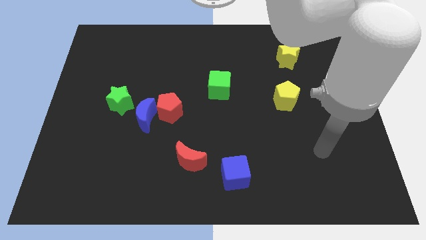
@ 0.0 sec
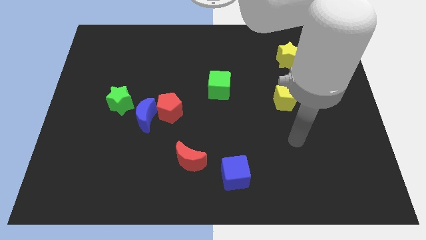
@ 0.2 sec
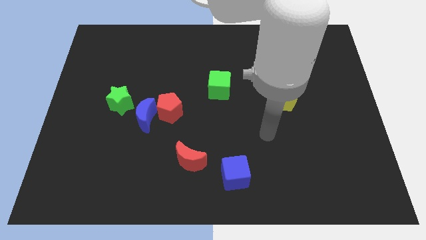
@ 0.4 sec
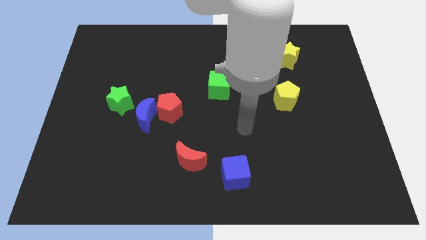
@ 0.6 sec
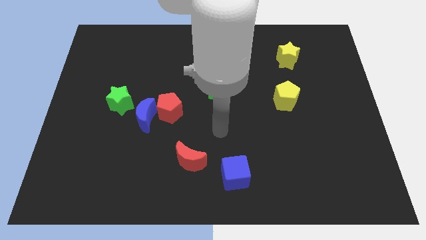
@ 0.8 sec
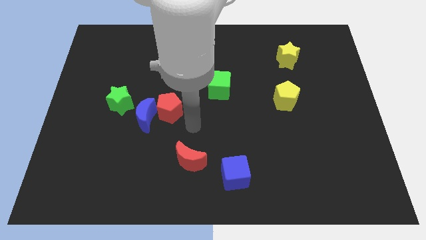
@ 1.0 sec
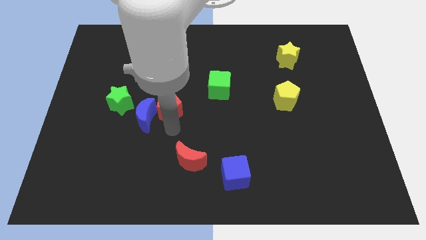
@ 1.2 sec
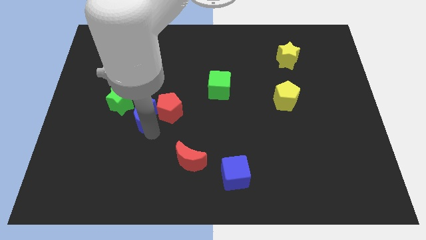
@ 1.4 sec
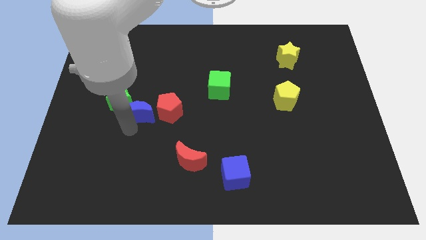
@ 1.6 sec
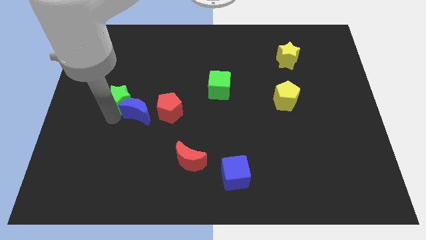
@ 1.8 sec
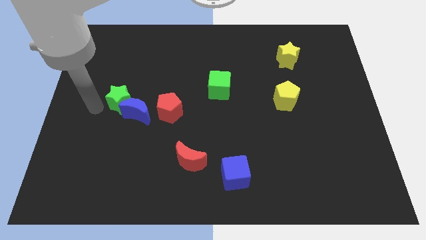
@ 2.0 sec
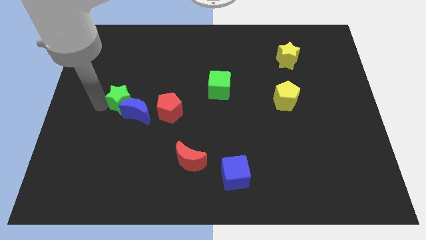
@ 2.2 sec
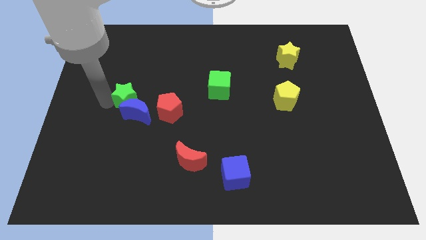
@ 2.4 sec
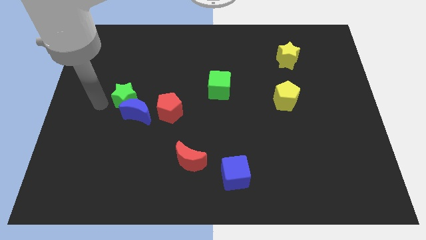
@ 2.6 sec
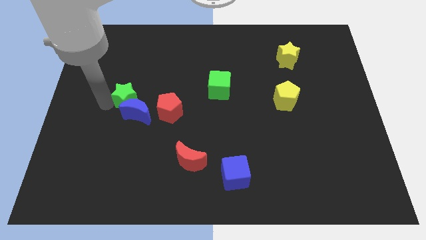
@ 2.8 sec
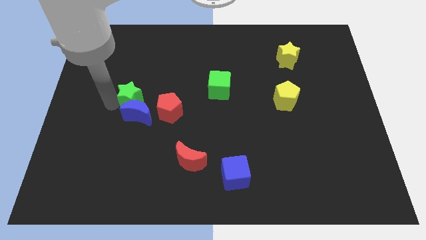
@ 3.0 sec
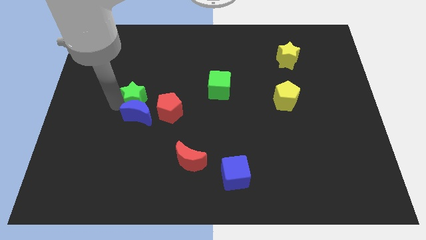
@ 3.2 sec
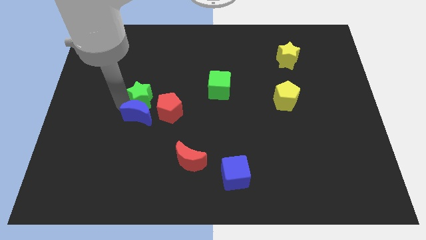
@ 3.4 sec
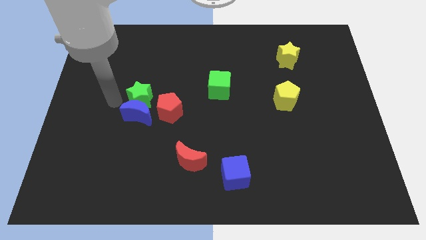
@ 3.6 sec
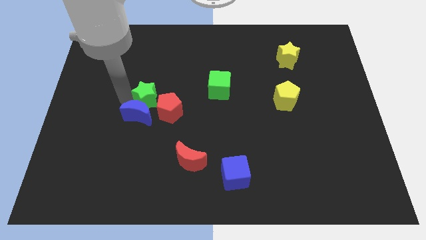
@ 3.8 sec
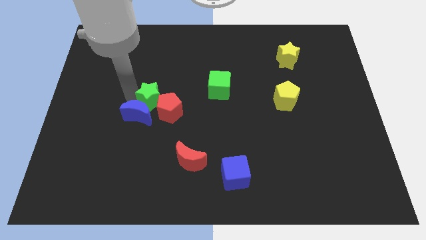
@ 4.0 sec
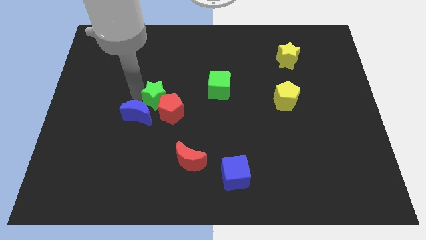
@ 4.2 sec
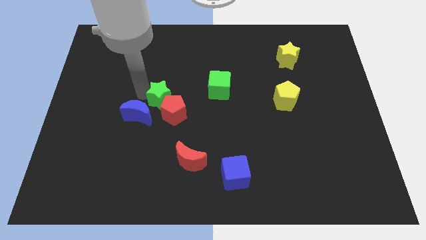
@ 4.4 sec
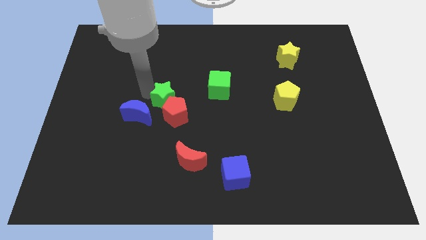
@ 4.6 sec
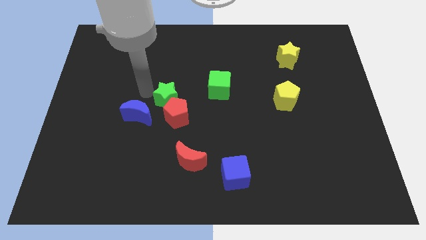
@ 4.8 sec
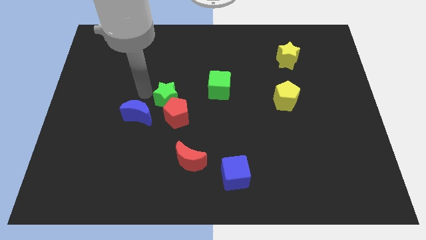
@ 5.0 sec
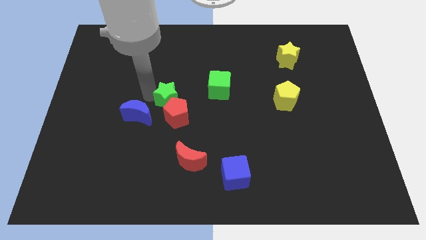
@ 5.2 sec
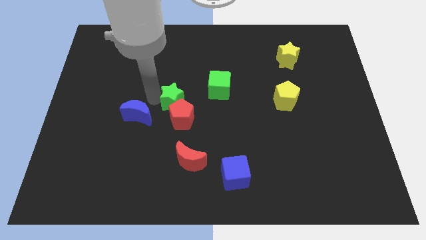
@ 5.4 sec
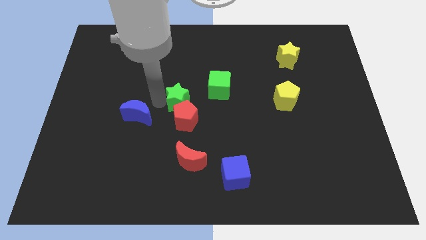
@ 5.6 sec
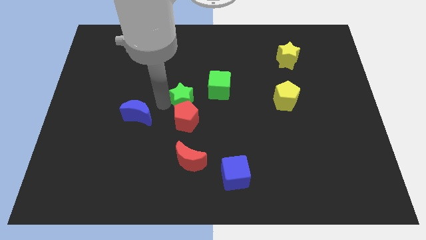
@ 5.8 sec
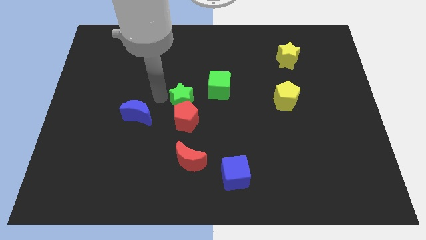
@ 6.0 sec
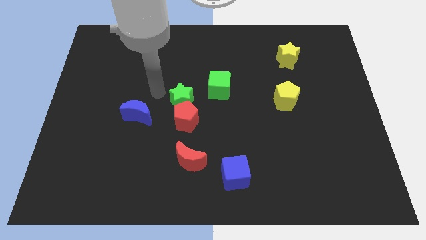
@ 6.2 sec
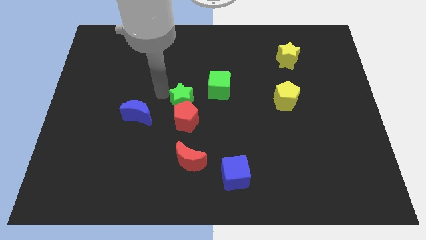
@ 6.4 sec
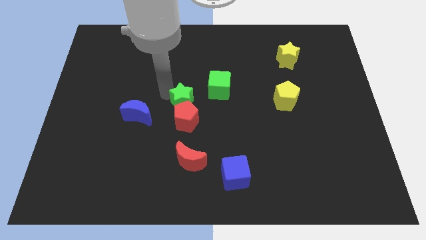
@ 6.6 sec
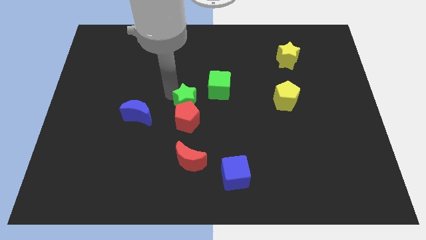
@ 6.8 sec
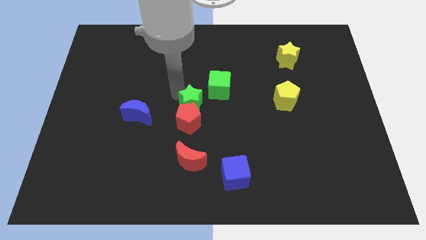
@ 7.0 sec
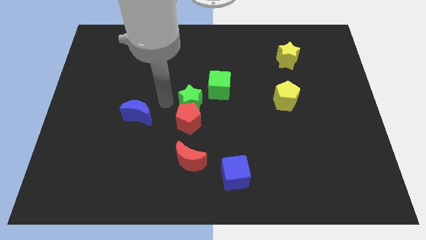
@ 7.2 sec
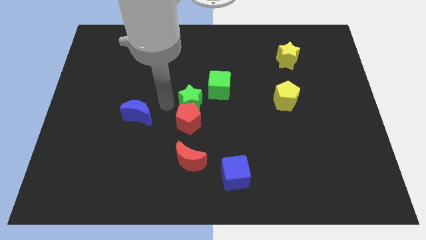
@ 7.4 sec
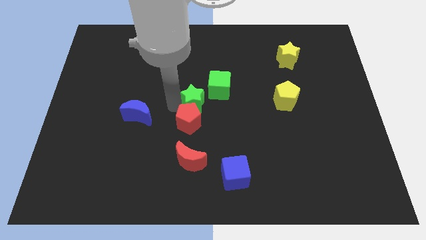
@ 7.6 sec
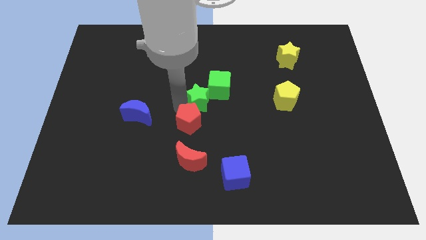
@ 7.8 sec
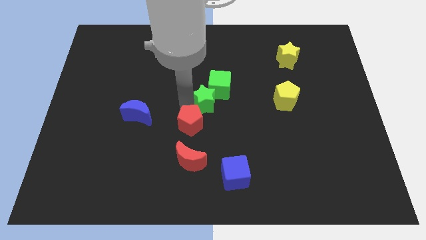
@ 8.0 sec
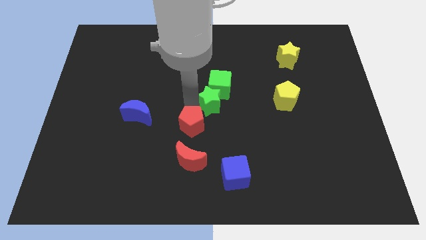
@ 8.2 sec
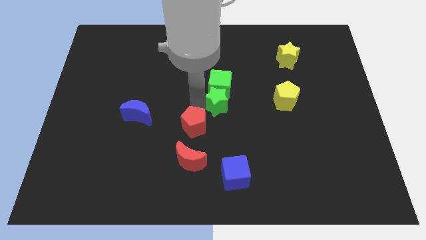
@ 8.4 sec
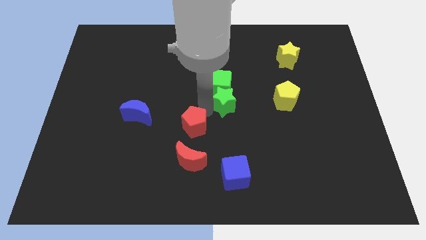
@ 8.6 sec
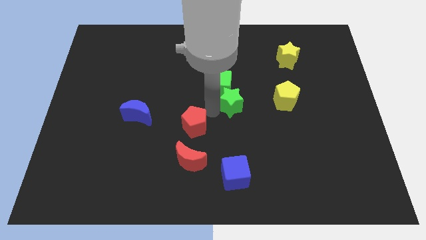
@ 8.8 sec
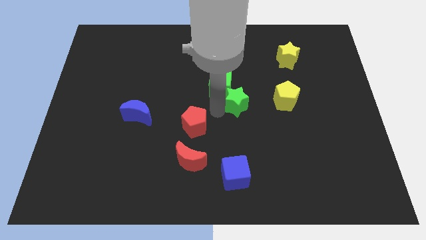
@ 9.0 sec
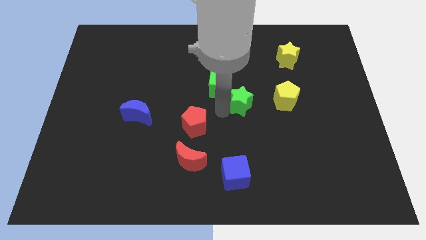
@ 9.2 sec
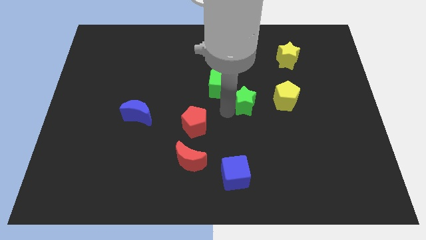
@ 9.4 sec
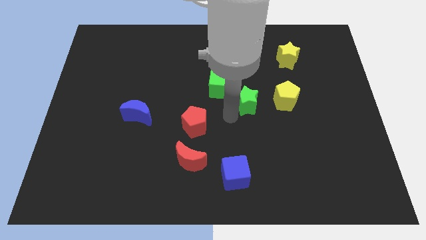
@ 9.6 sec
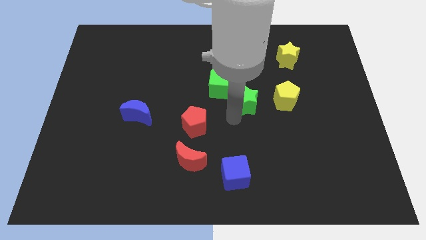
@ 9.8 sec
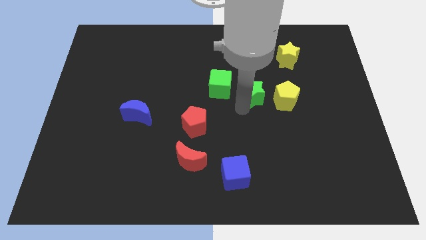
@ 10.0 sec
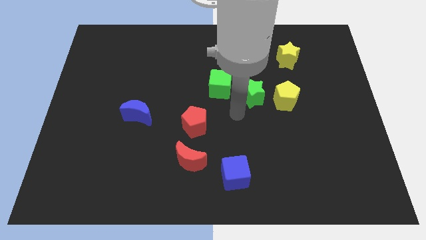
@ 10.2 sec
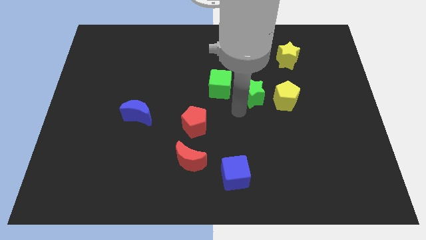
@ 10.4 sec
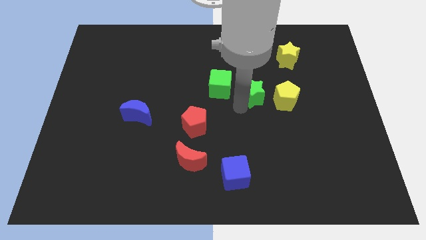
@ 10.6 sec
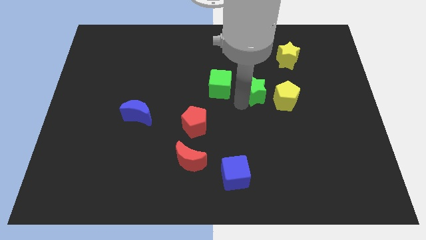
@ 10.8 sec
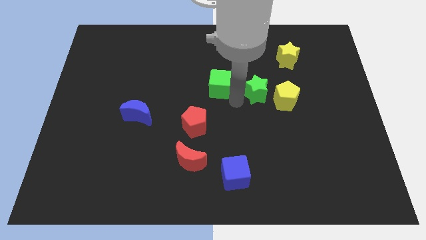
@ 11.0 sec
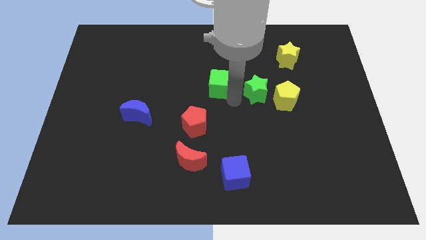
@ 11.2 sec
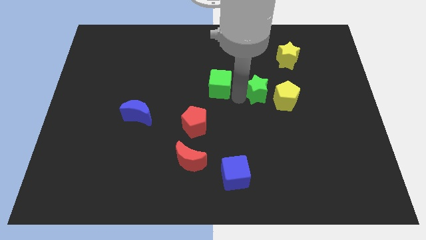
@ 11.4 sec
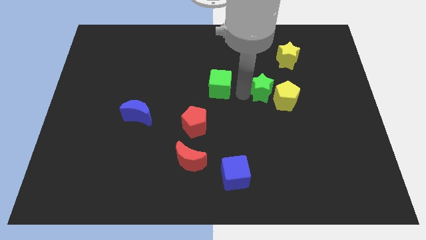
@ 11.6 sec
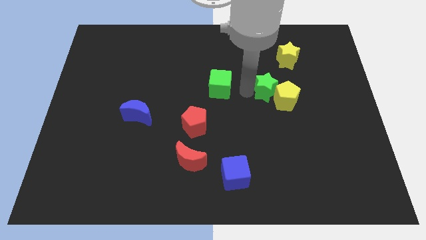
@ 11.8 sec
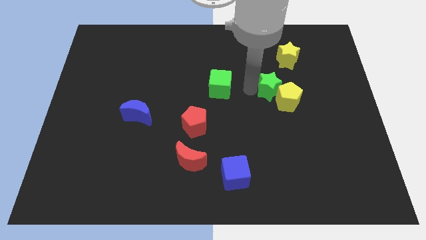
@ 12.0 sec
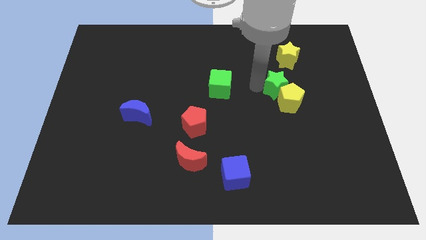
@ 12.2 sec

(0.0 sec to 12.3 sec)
put the green star to the bottom of the yellow star

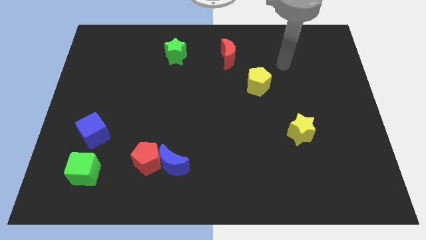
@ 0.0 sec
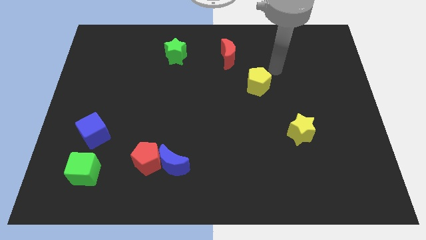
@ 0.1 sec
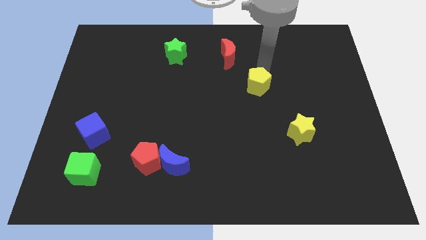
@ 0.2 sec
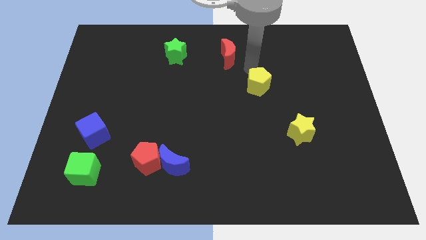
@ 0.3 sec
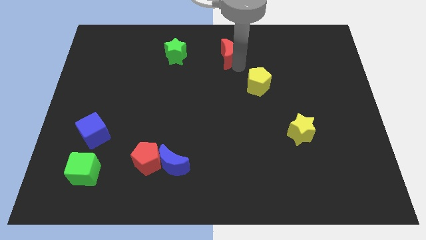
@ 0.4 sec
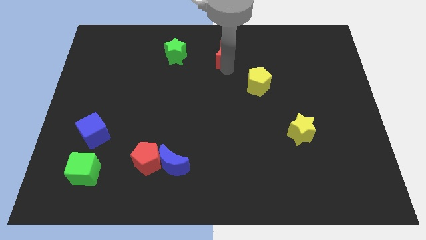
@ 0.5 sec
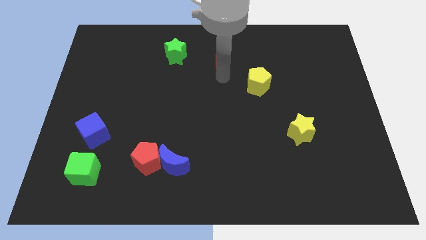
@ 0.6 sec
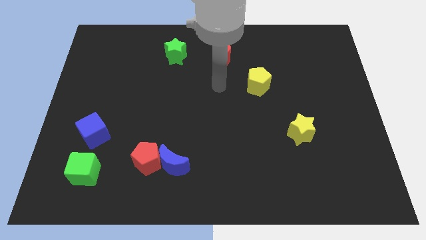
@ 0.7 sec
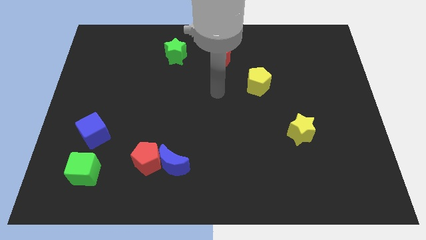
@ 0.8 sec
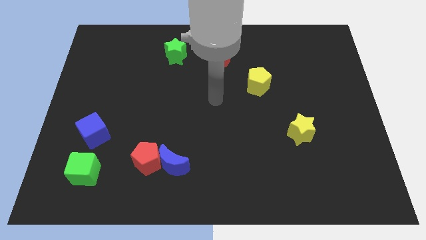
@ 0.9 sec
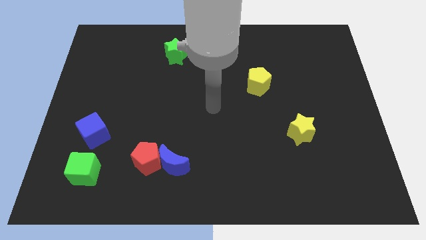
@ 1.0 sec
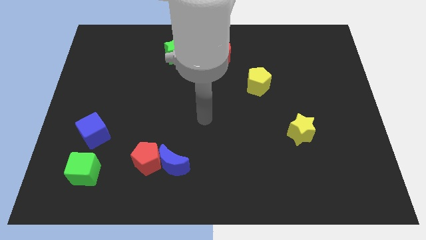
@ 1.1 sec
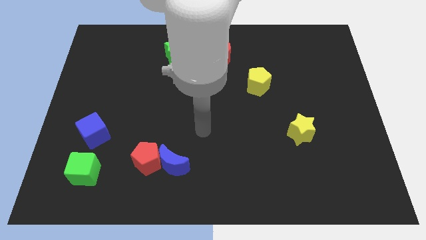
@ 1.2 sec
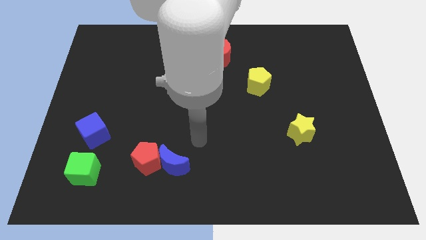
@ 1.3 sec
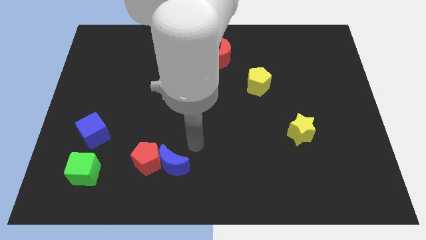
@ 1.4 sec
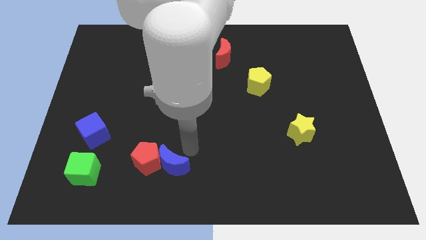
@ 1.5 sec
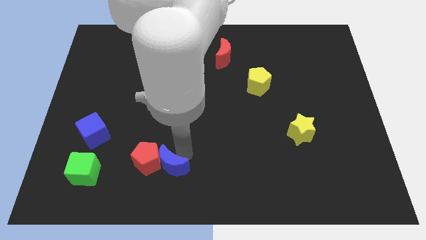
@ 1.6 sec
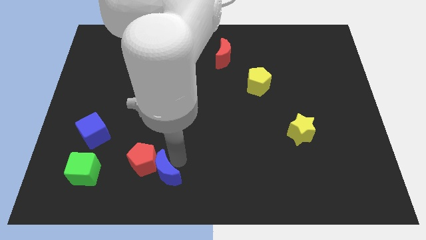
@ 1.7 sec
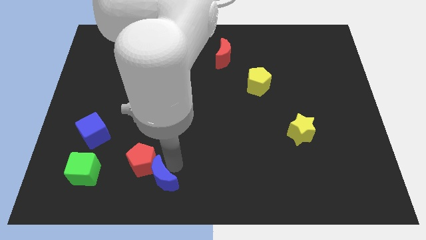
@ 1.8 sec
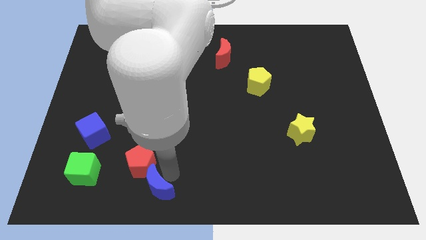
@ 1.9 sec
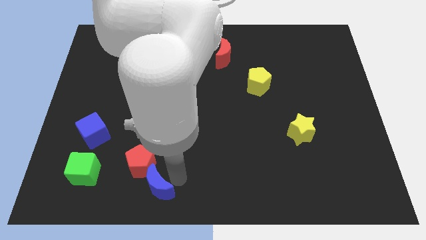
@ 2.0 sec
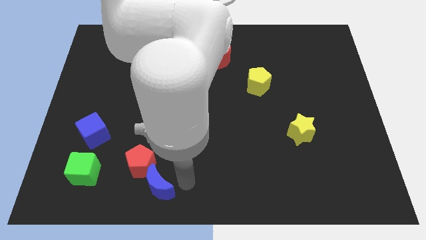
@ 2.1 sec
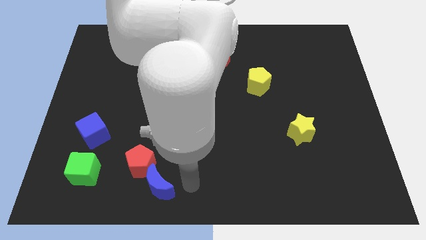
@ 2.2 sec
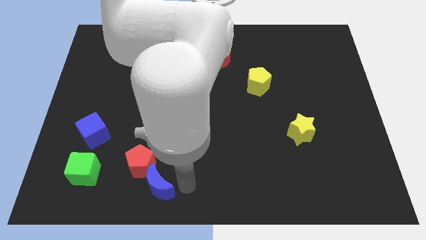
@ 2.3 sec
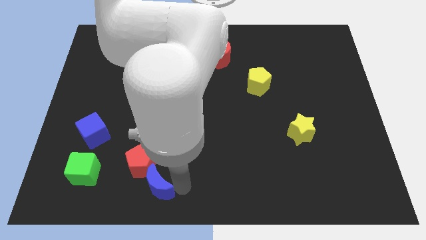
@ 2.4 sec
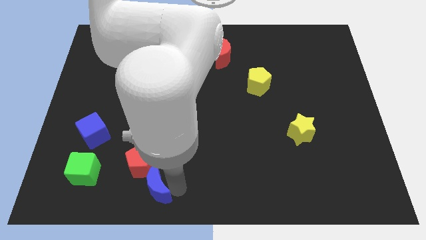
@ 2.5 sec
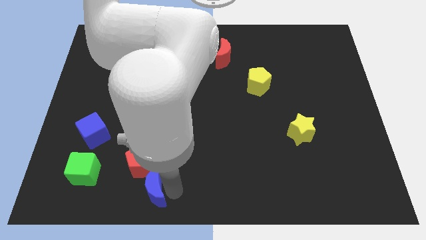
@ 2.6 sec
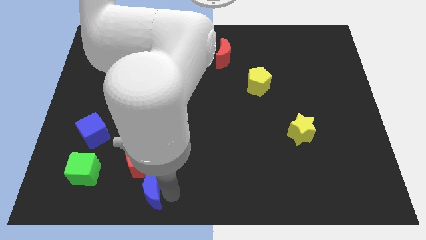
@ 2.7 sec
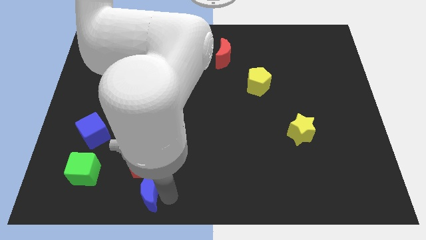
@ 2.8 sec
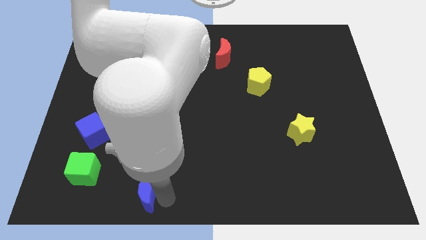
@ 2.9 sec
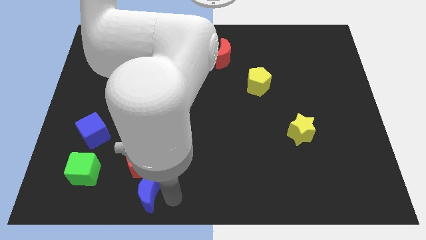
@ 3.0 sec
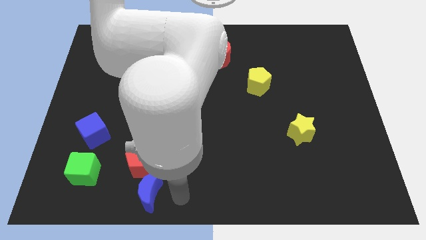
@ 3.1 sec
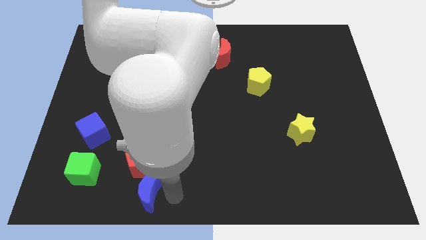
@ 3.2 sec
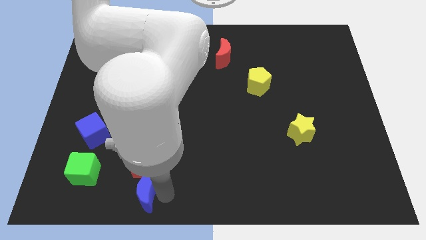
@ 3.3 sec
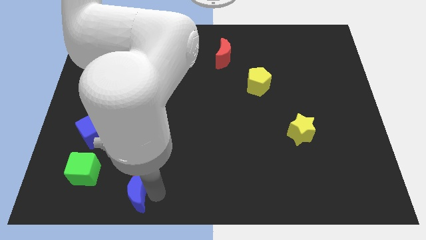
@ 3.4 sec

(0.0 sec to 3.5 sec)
slide the blue moon to the bottom left of the red pentagon
